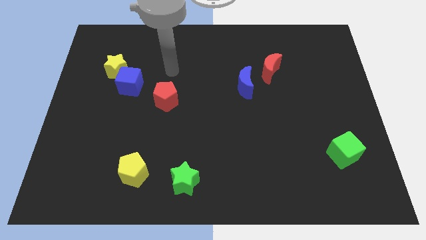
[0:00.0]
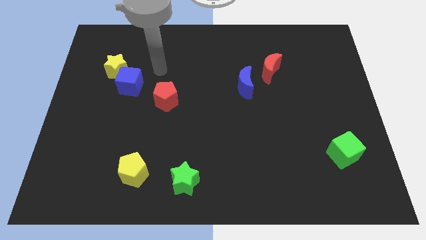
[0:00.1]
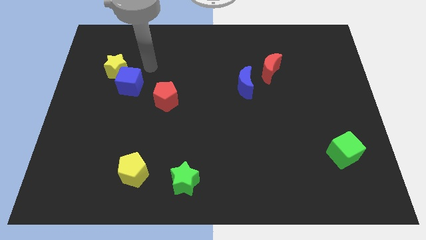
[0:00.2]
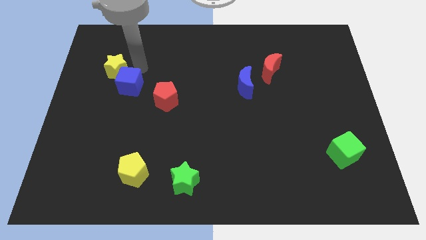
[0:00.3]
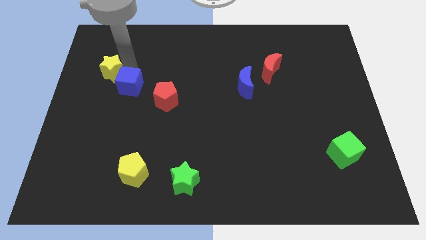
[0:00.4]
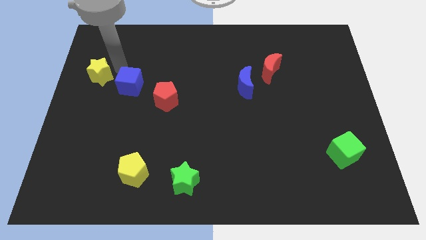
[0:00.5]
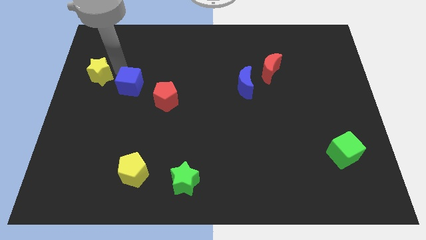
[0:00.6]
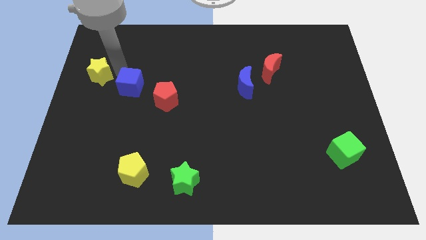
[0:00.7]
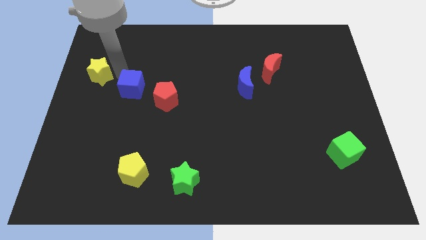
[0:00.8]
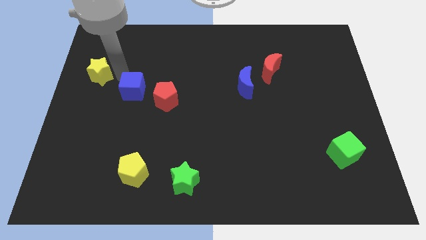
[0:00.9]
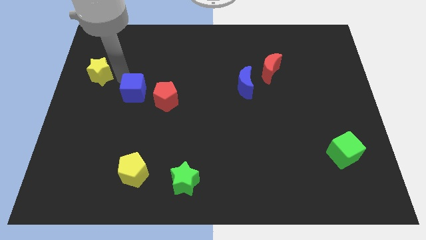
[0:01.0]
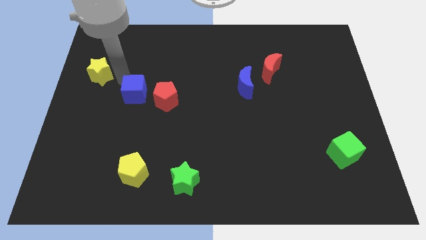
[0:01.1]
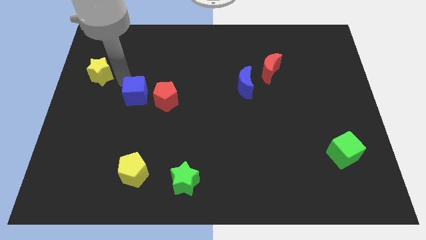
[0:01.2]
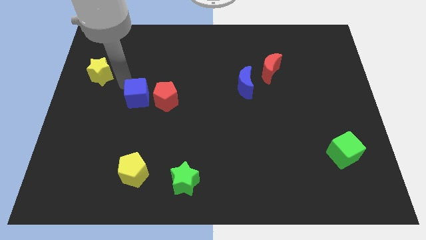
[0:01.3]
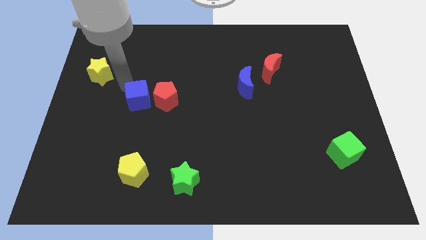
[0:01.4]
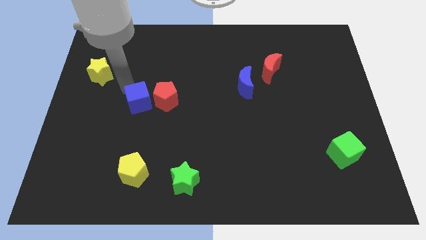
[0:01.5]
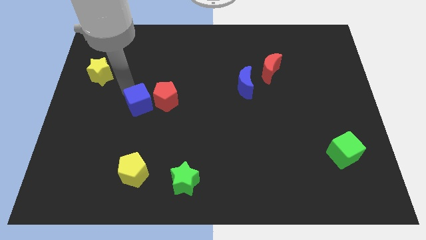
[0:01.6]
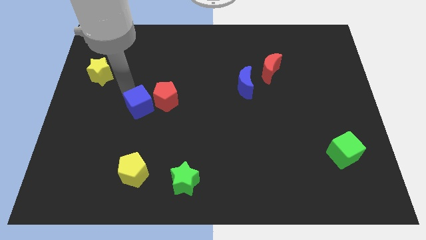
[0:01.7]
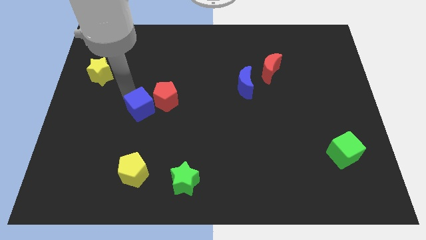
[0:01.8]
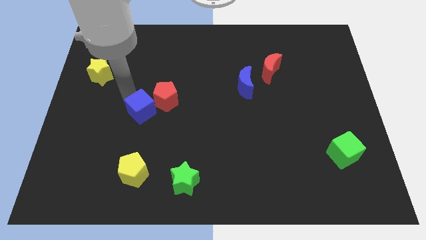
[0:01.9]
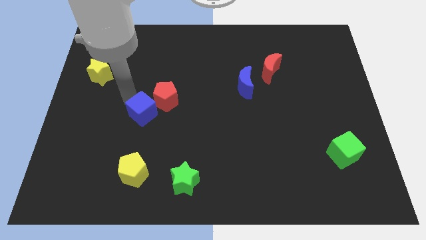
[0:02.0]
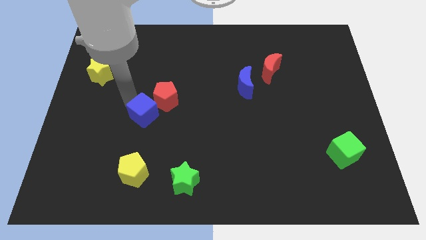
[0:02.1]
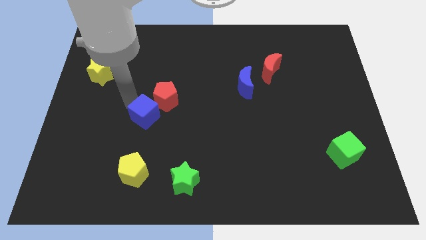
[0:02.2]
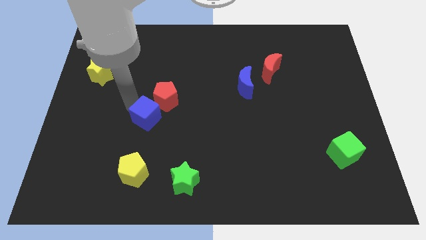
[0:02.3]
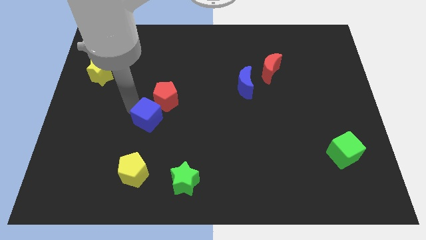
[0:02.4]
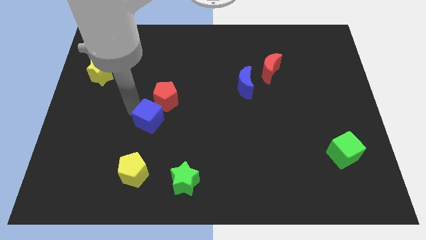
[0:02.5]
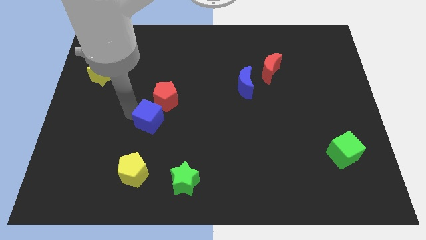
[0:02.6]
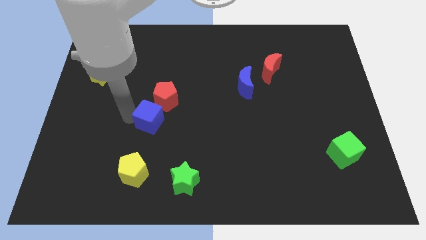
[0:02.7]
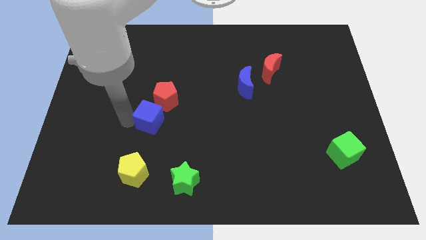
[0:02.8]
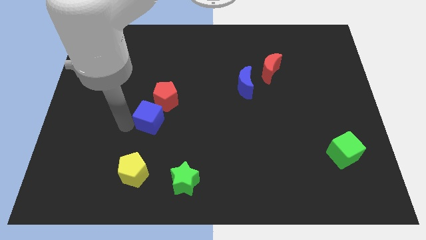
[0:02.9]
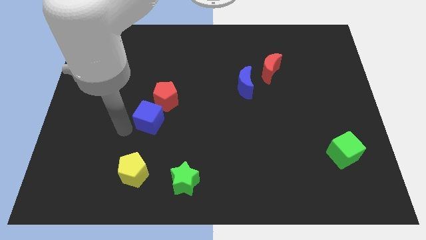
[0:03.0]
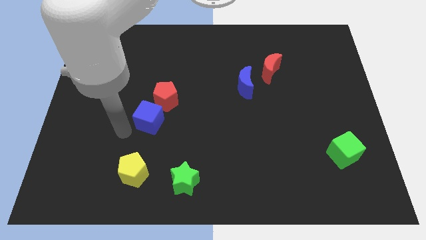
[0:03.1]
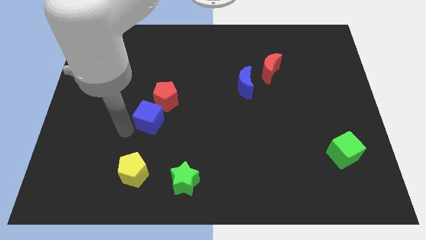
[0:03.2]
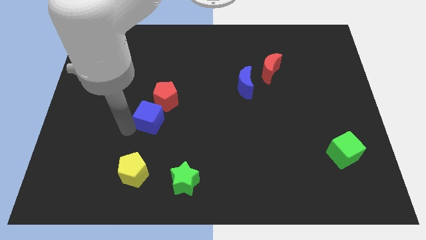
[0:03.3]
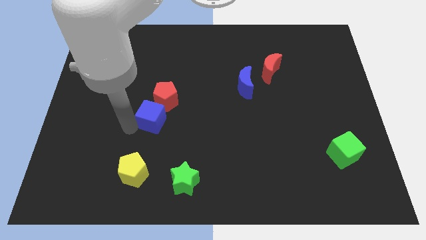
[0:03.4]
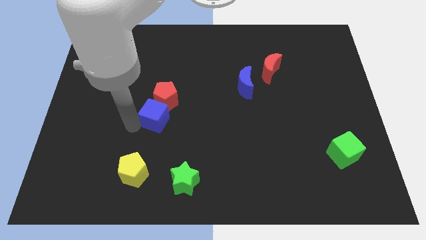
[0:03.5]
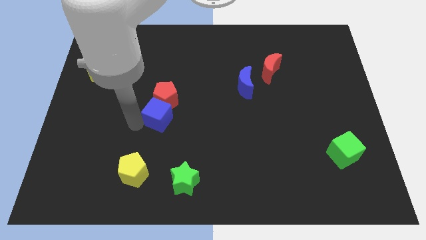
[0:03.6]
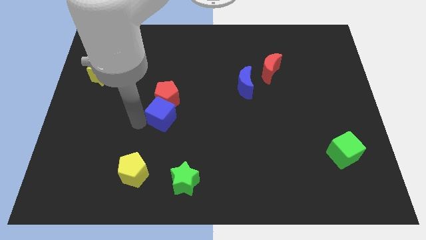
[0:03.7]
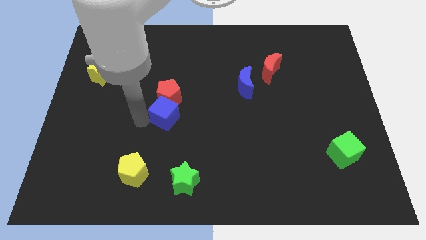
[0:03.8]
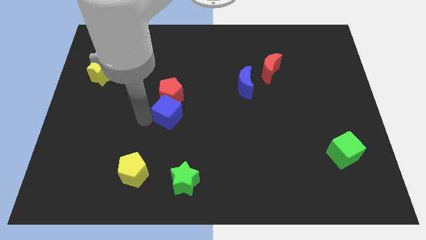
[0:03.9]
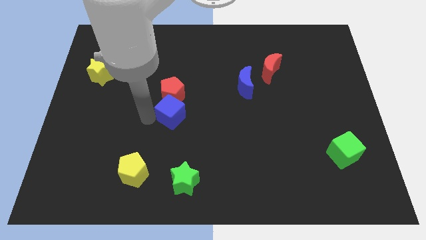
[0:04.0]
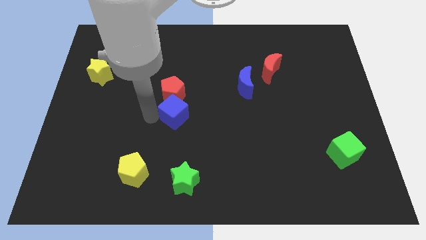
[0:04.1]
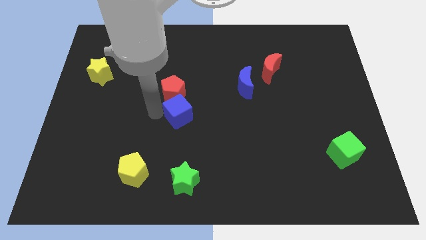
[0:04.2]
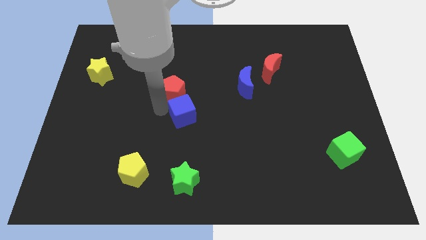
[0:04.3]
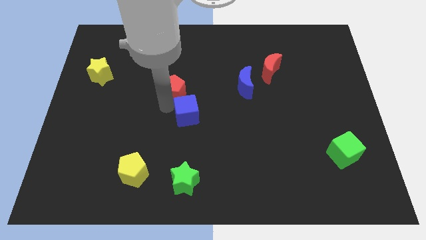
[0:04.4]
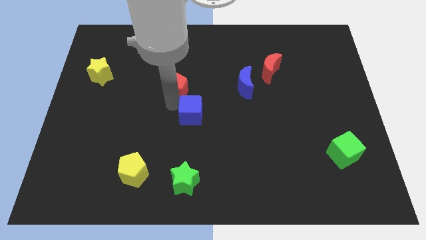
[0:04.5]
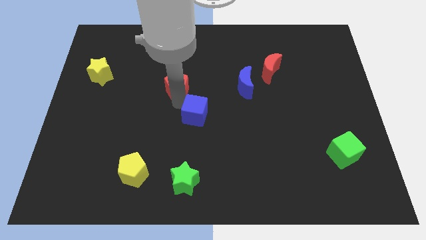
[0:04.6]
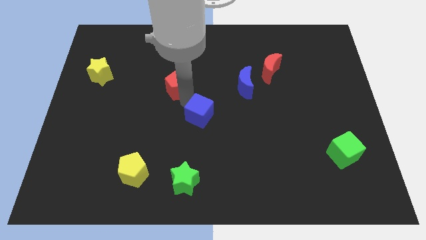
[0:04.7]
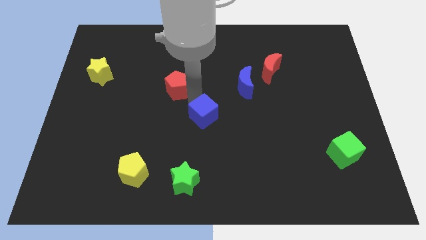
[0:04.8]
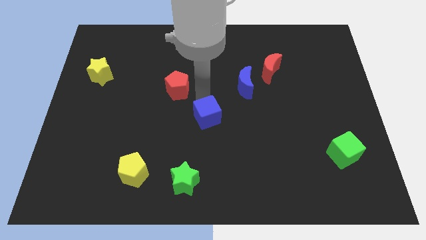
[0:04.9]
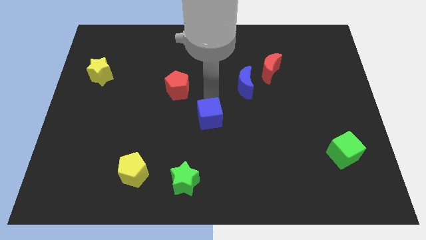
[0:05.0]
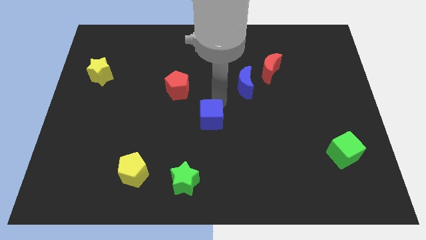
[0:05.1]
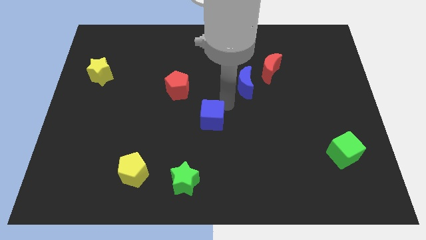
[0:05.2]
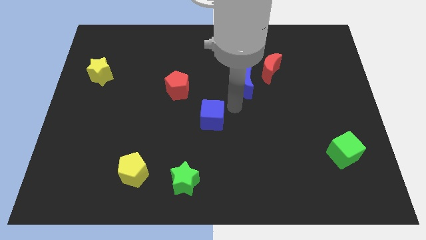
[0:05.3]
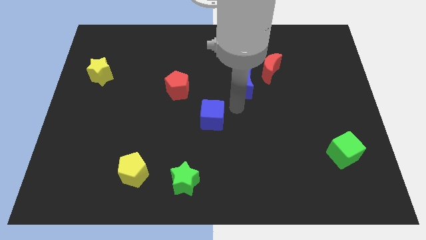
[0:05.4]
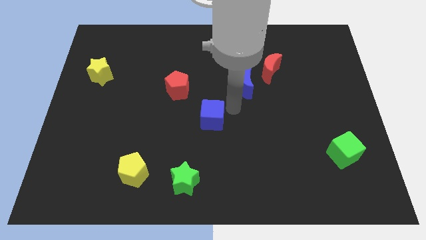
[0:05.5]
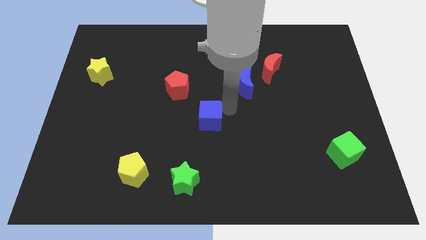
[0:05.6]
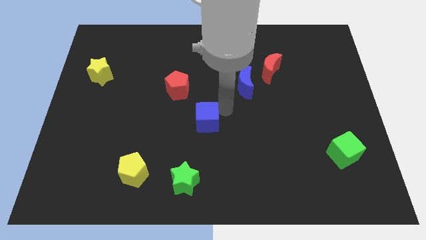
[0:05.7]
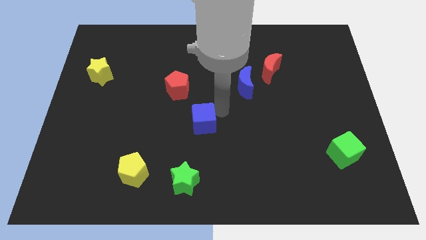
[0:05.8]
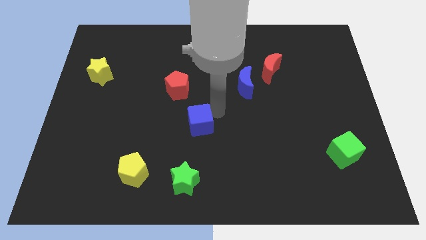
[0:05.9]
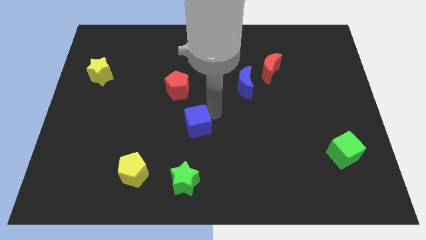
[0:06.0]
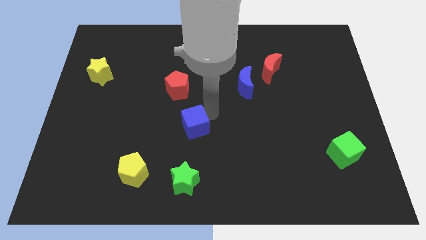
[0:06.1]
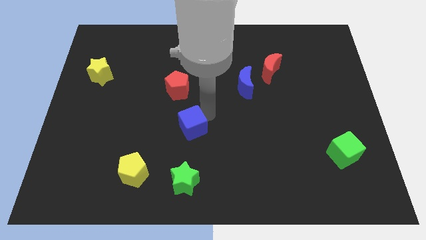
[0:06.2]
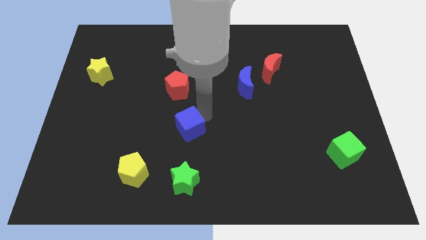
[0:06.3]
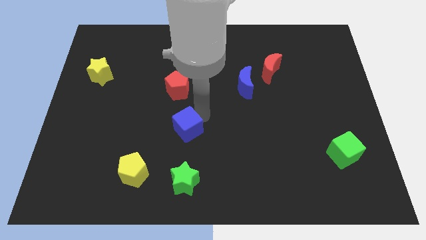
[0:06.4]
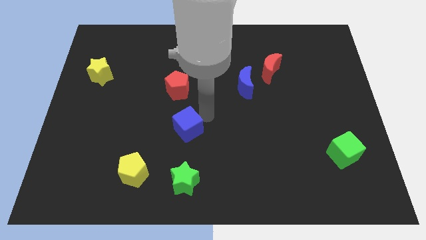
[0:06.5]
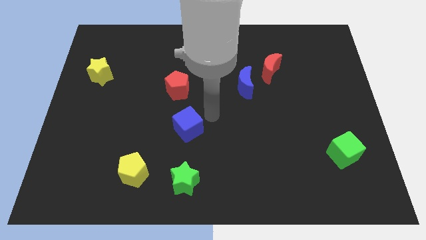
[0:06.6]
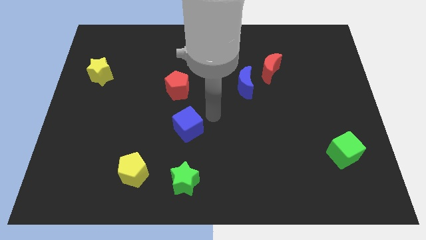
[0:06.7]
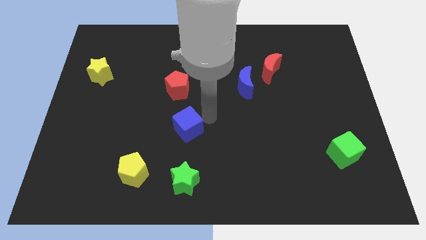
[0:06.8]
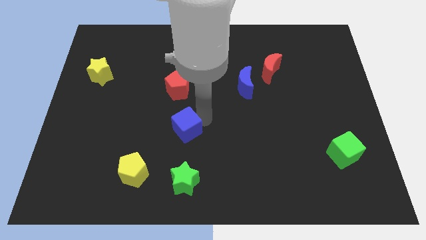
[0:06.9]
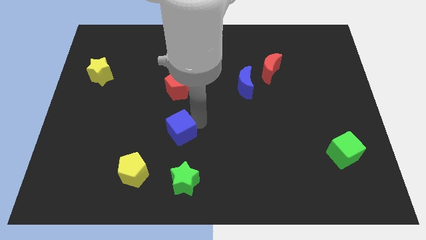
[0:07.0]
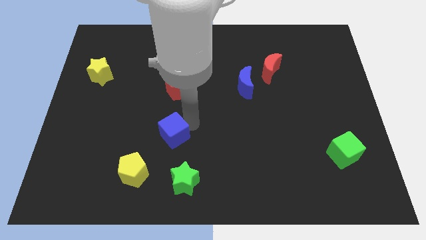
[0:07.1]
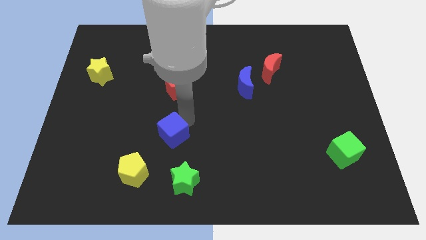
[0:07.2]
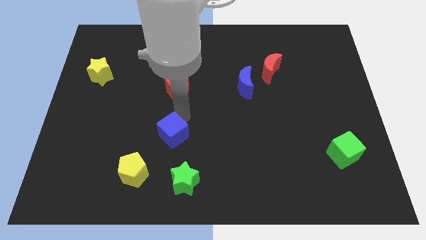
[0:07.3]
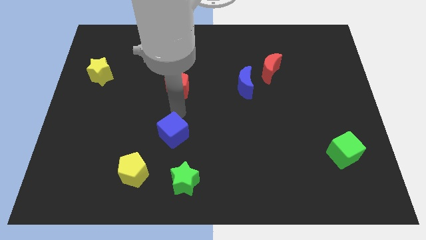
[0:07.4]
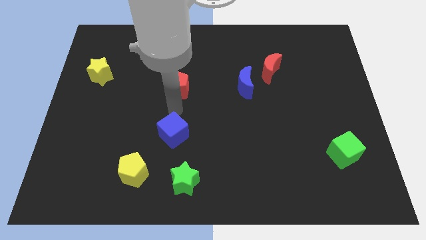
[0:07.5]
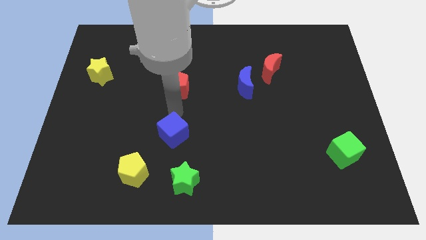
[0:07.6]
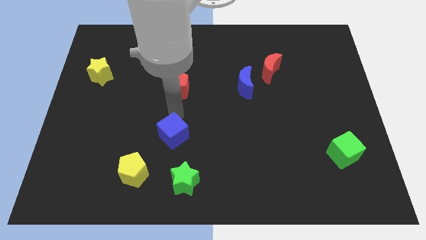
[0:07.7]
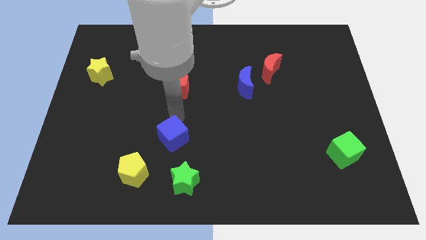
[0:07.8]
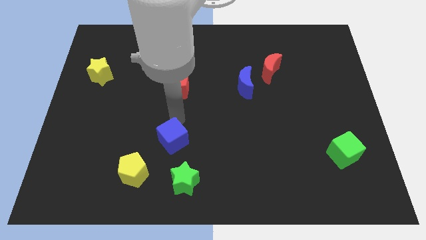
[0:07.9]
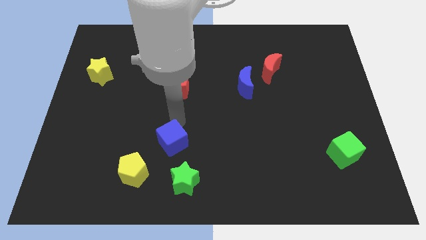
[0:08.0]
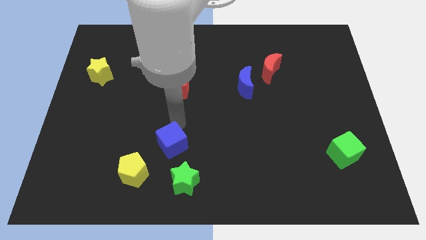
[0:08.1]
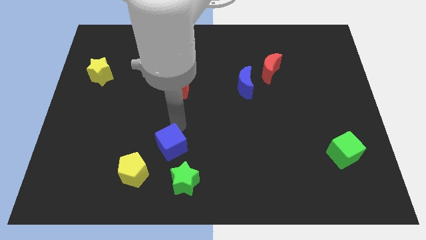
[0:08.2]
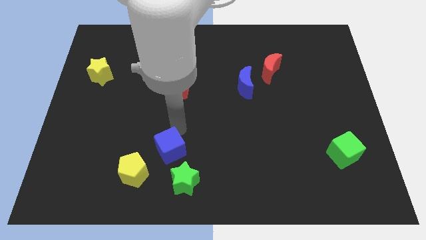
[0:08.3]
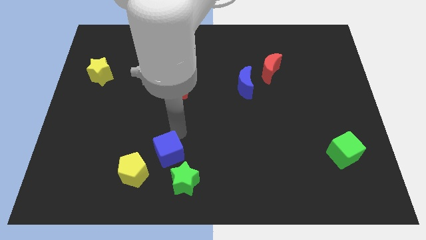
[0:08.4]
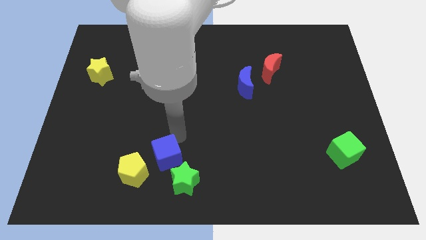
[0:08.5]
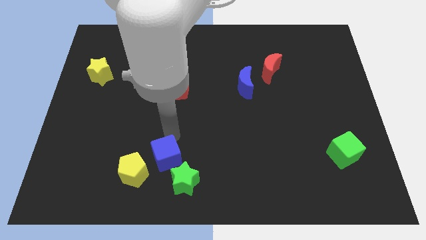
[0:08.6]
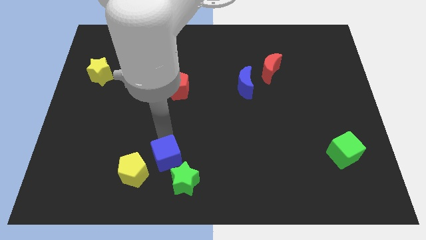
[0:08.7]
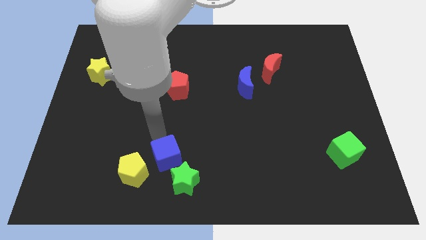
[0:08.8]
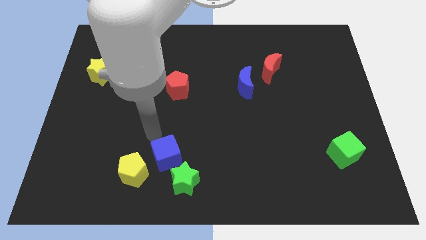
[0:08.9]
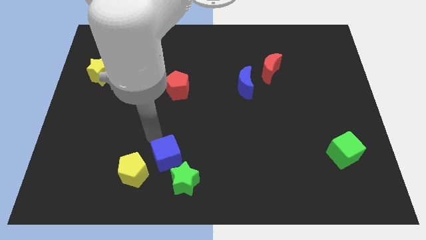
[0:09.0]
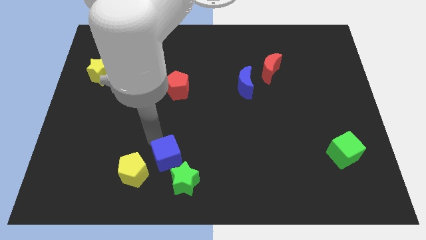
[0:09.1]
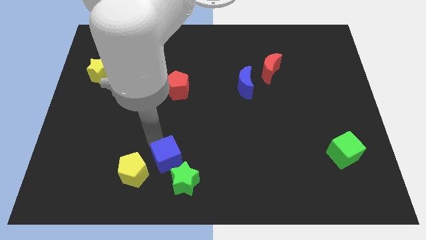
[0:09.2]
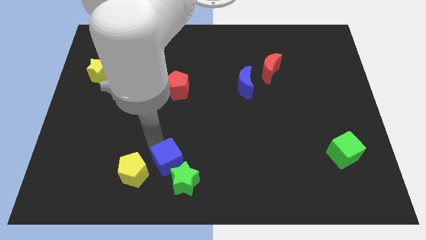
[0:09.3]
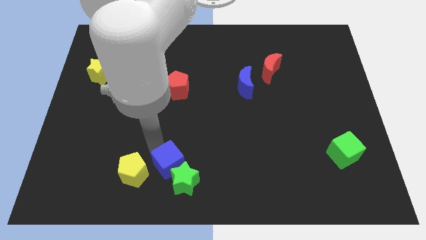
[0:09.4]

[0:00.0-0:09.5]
slide the blue cube to the green star
